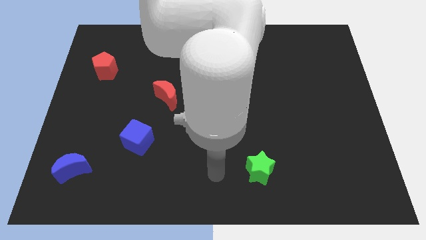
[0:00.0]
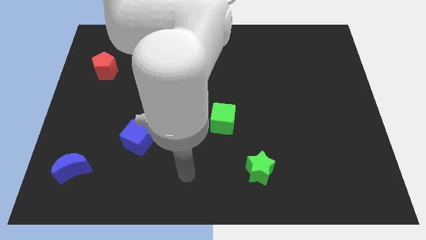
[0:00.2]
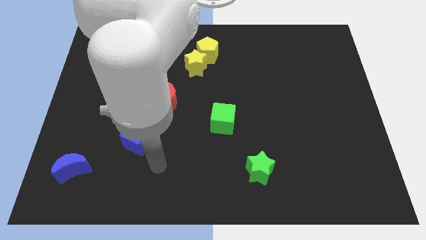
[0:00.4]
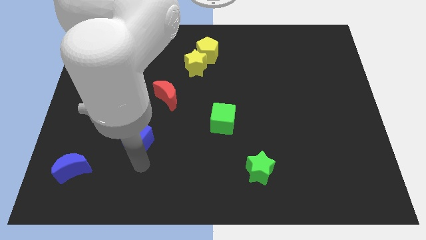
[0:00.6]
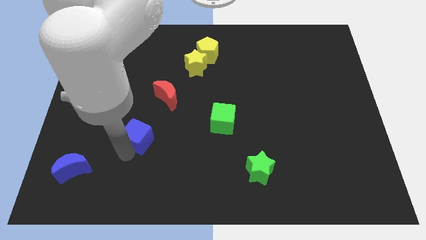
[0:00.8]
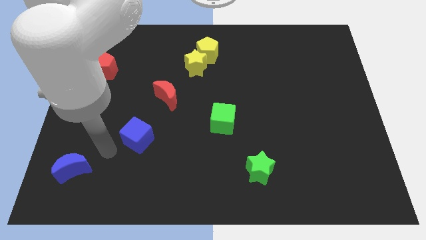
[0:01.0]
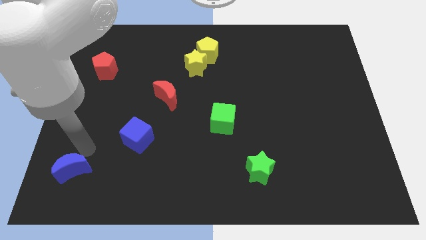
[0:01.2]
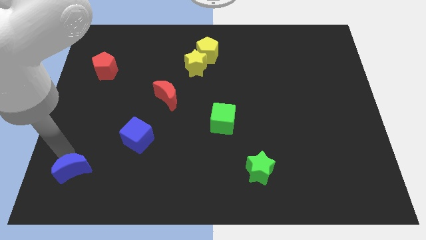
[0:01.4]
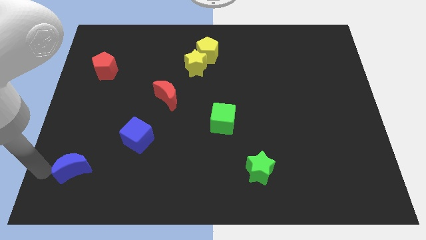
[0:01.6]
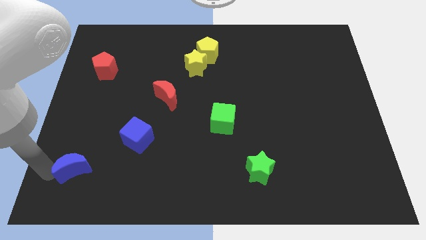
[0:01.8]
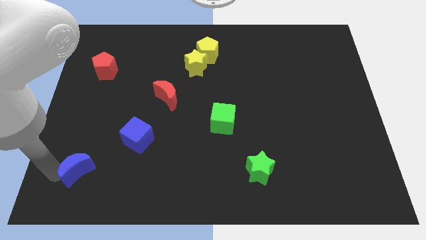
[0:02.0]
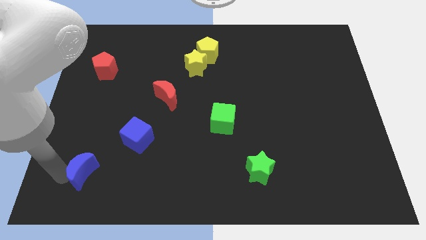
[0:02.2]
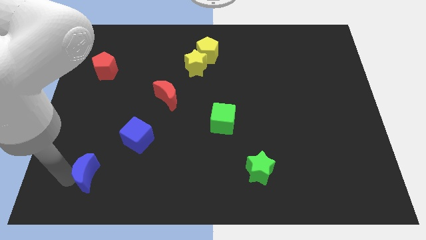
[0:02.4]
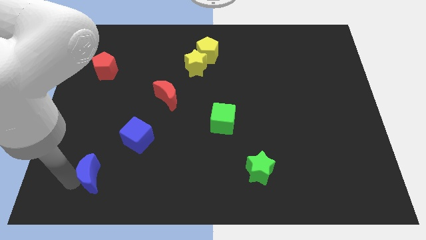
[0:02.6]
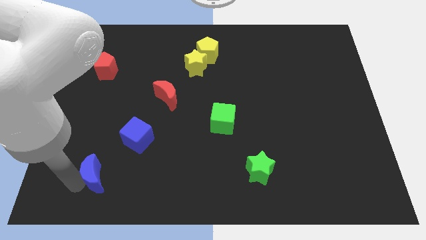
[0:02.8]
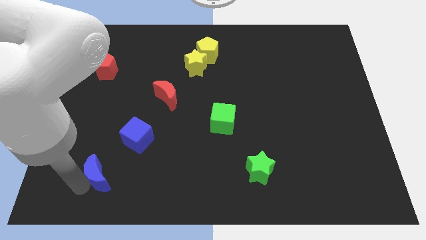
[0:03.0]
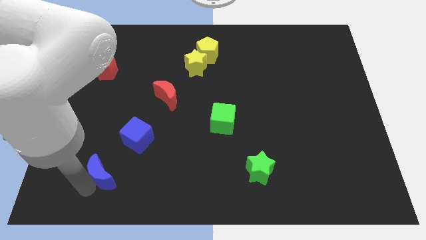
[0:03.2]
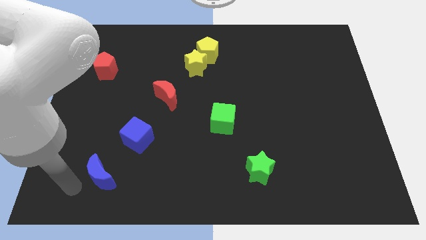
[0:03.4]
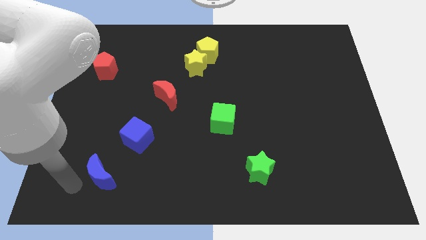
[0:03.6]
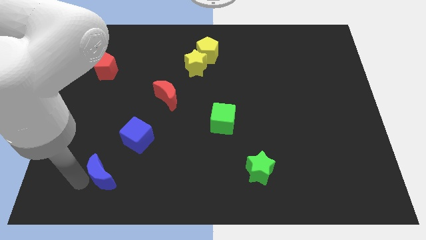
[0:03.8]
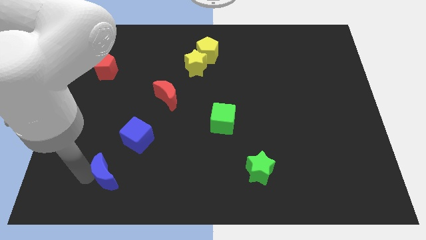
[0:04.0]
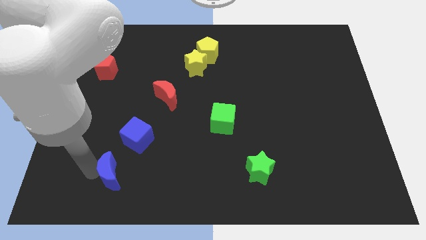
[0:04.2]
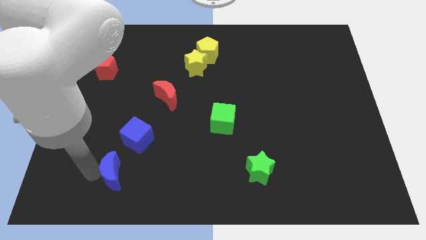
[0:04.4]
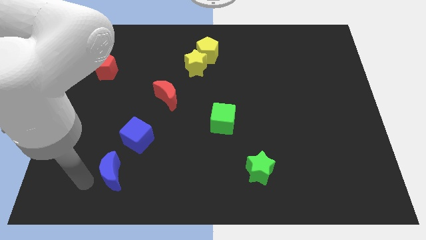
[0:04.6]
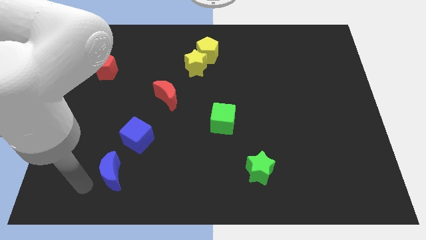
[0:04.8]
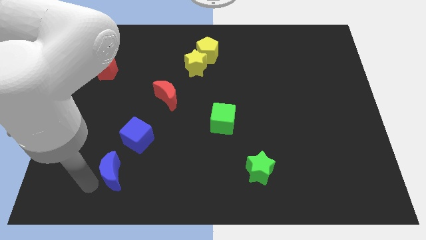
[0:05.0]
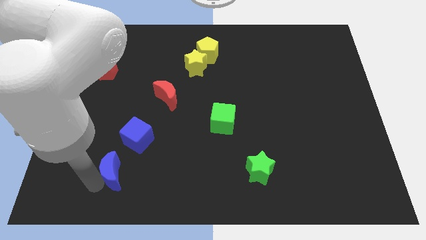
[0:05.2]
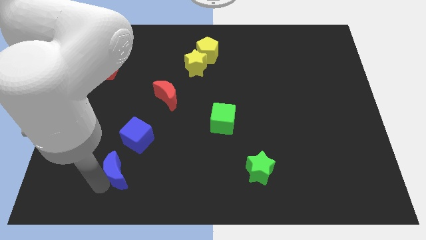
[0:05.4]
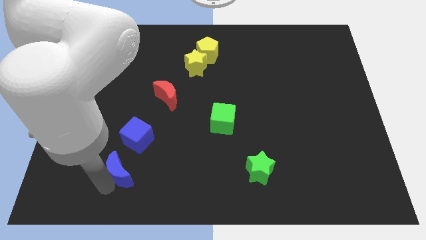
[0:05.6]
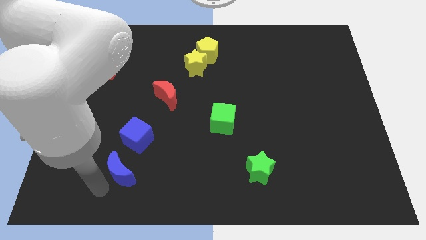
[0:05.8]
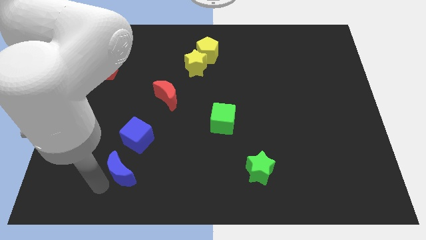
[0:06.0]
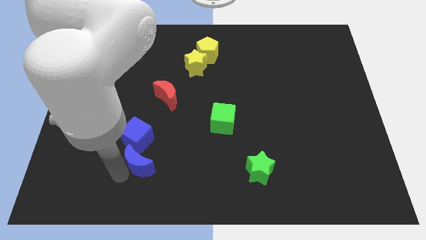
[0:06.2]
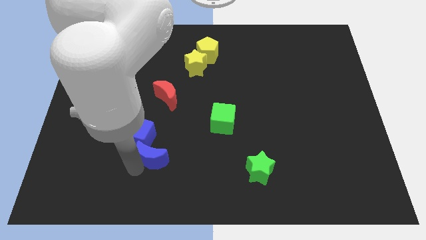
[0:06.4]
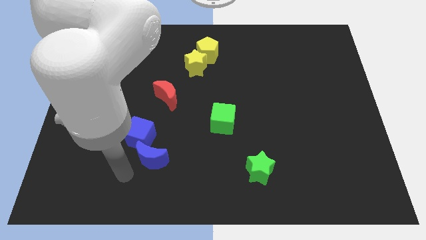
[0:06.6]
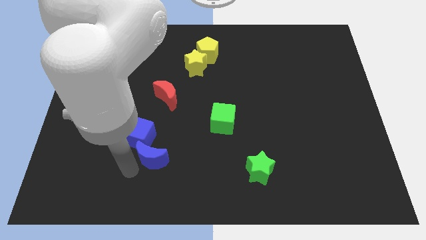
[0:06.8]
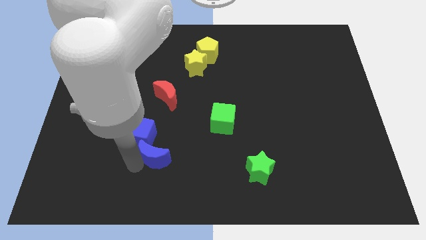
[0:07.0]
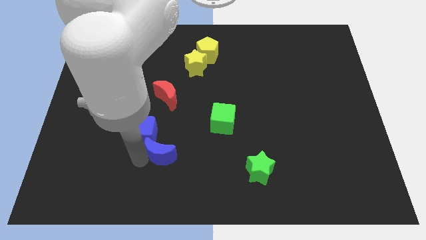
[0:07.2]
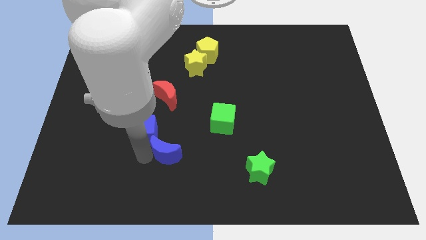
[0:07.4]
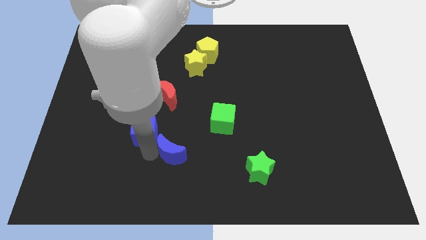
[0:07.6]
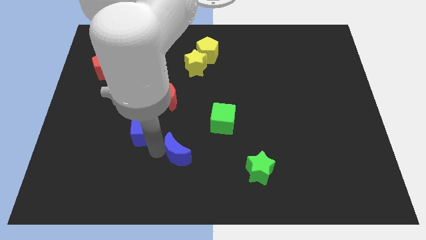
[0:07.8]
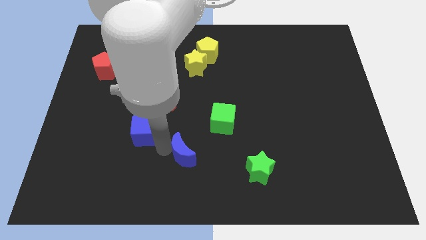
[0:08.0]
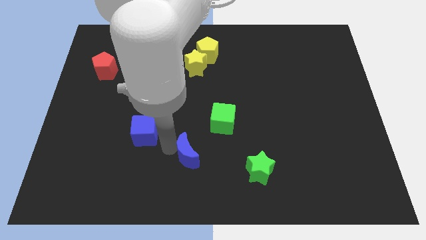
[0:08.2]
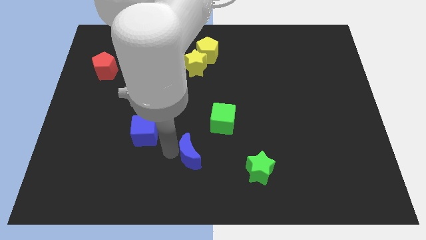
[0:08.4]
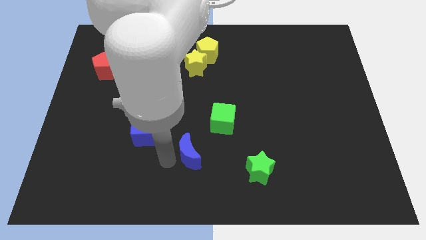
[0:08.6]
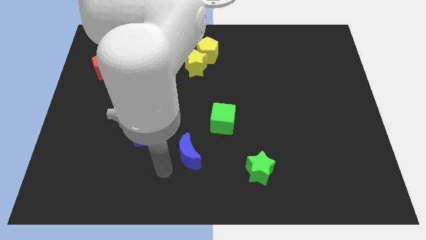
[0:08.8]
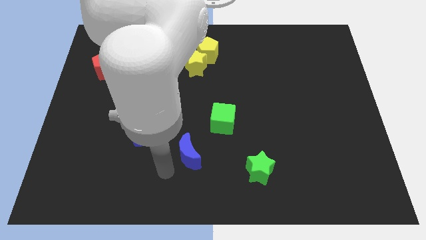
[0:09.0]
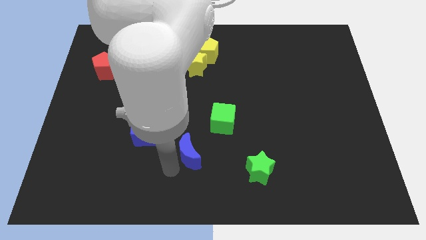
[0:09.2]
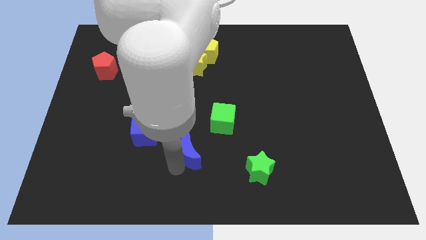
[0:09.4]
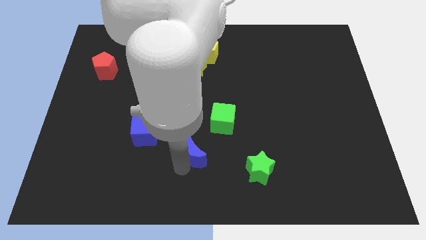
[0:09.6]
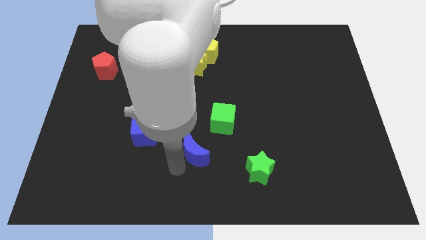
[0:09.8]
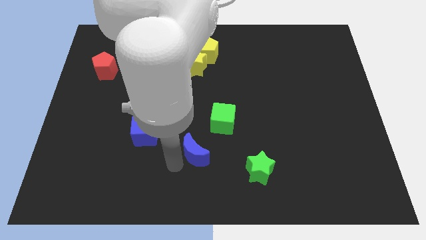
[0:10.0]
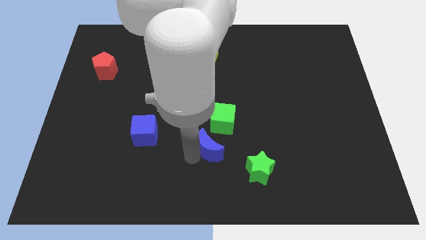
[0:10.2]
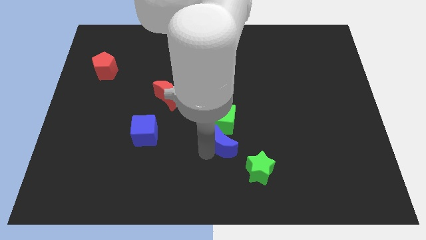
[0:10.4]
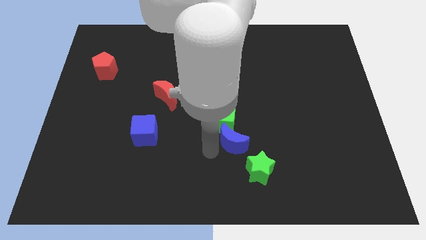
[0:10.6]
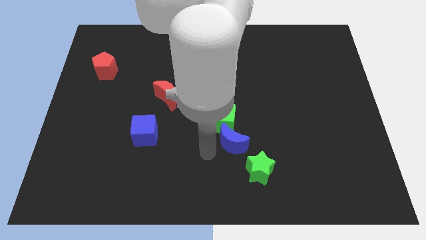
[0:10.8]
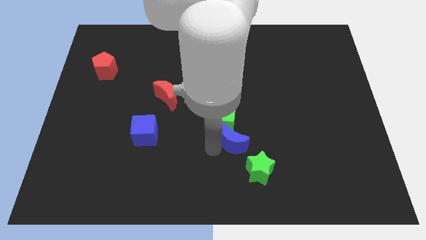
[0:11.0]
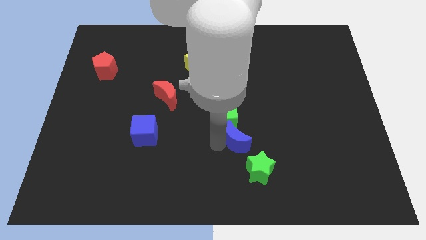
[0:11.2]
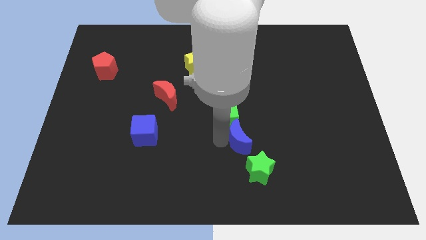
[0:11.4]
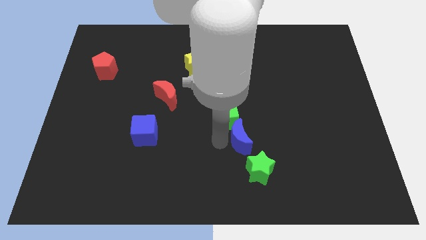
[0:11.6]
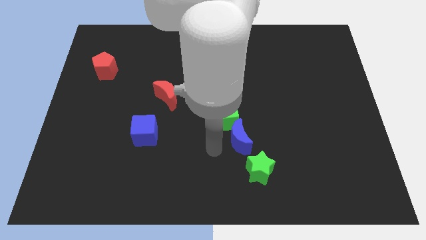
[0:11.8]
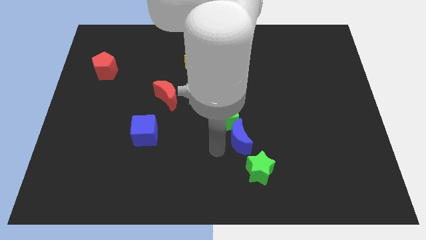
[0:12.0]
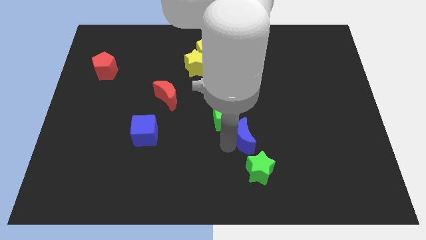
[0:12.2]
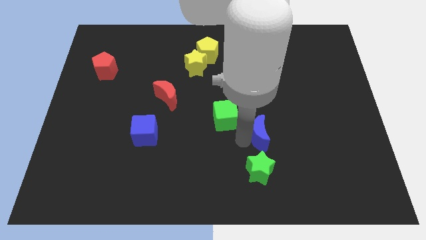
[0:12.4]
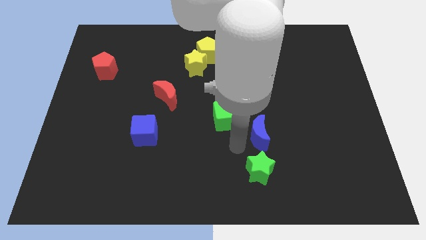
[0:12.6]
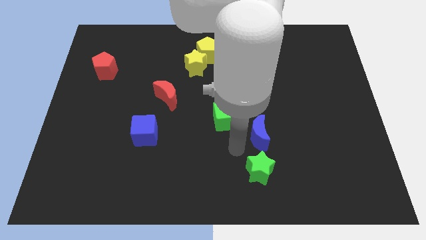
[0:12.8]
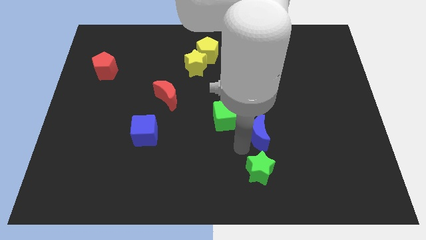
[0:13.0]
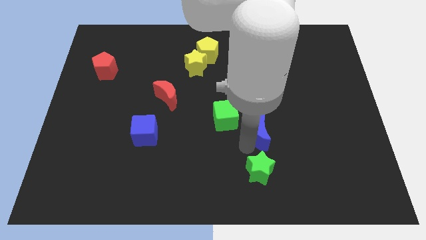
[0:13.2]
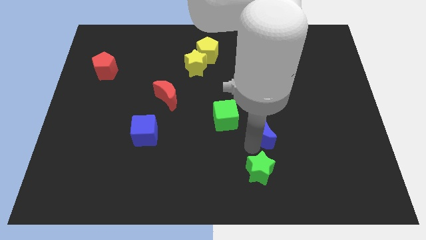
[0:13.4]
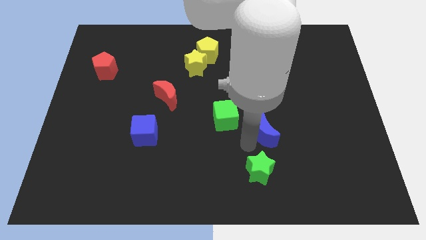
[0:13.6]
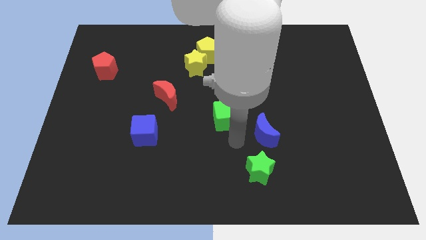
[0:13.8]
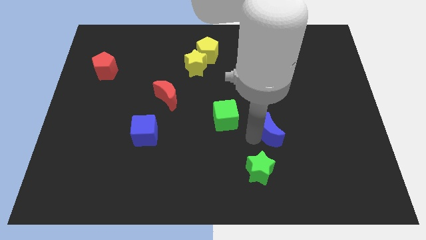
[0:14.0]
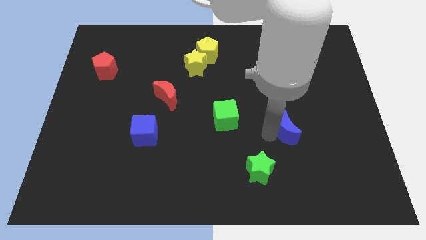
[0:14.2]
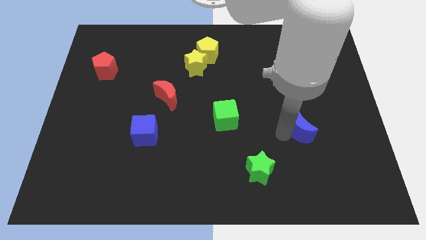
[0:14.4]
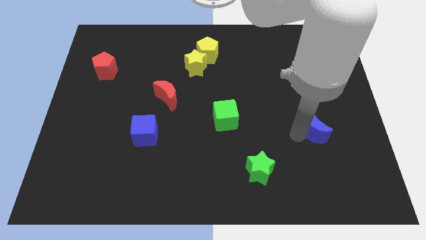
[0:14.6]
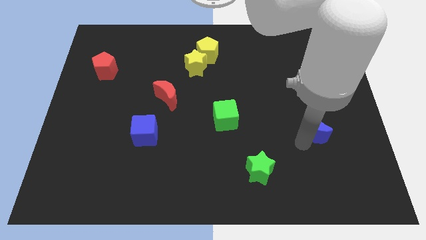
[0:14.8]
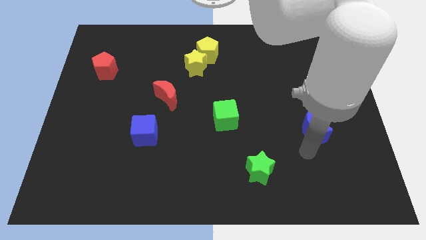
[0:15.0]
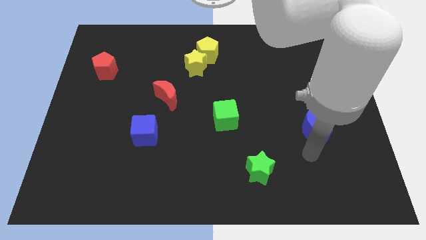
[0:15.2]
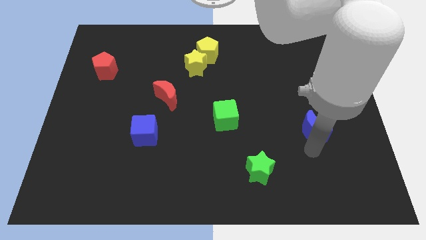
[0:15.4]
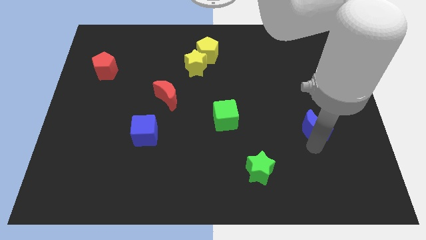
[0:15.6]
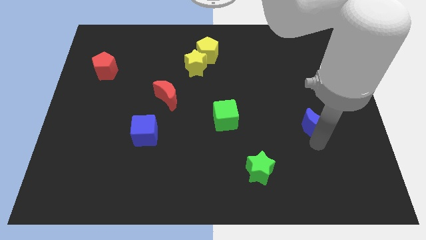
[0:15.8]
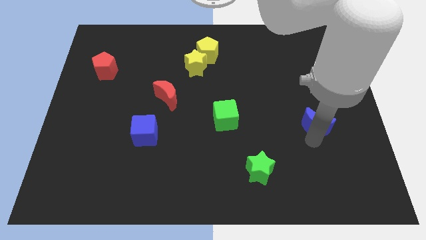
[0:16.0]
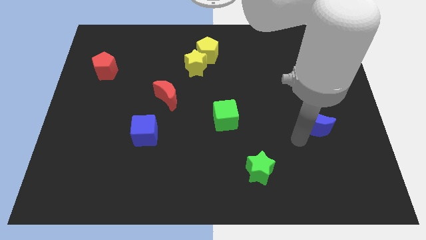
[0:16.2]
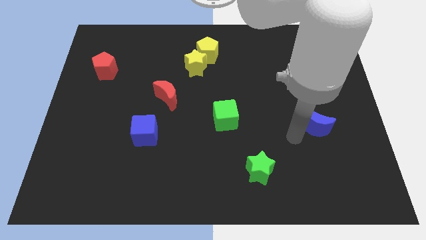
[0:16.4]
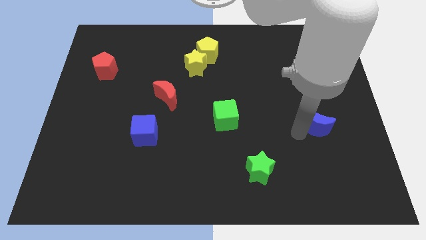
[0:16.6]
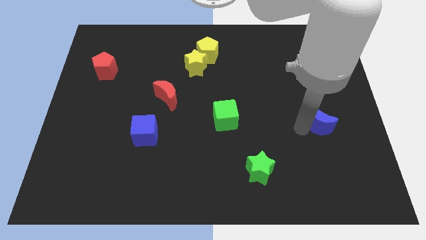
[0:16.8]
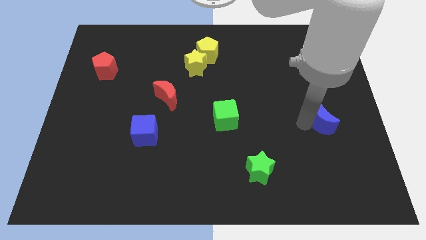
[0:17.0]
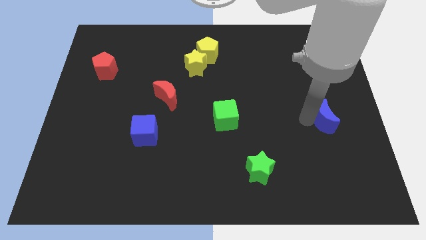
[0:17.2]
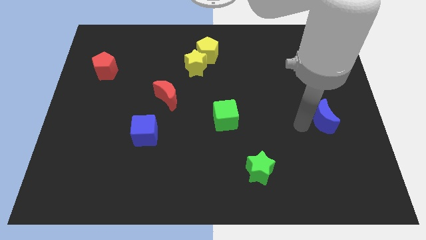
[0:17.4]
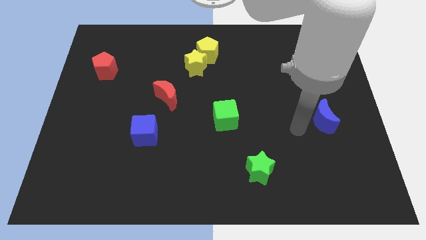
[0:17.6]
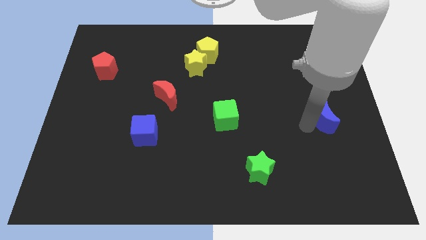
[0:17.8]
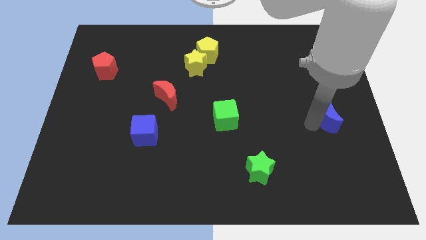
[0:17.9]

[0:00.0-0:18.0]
put the blue moon to the center right
